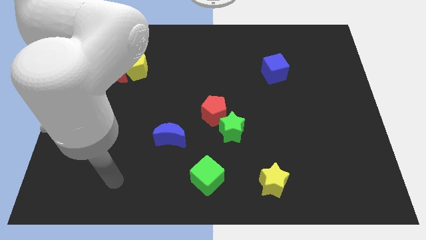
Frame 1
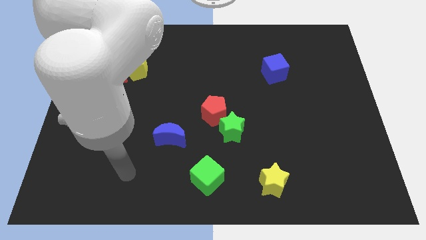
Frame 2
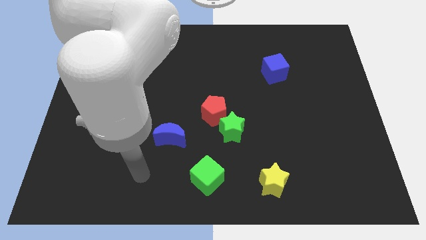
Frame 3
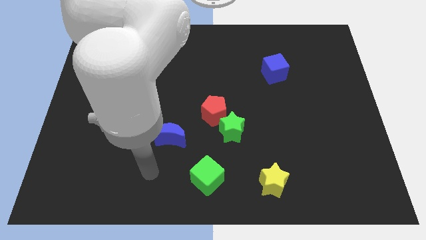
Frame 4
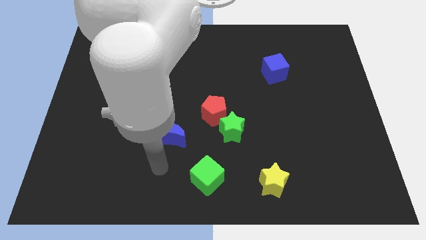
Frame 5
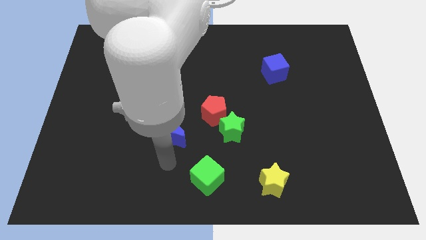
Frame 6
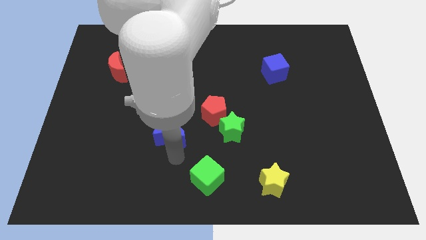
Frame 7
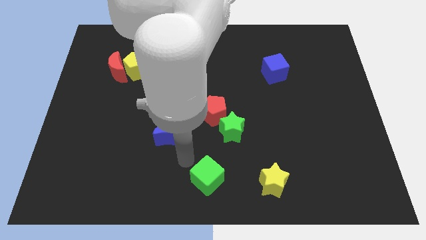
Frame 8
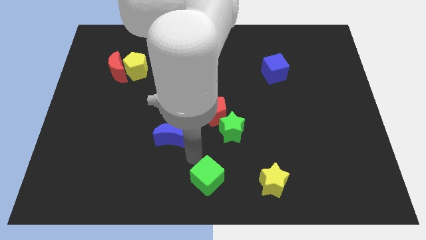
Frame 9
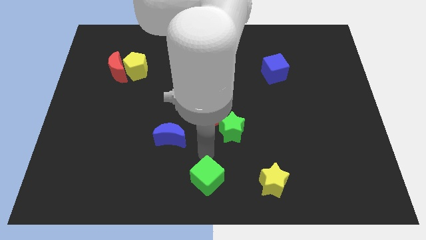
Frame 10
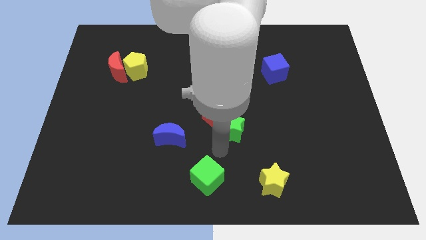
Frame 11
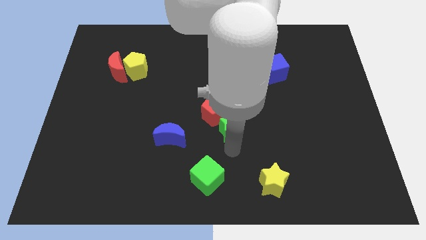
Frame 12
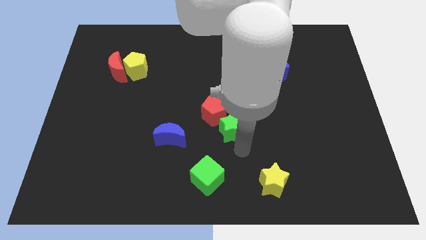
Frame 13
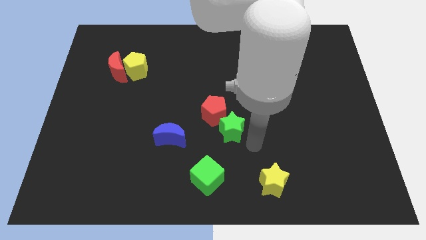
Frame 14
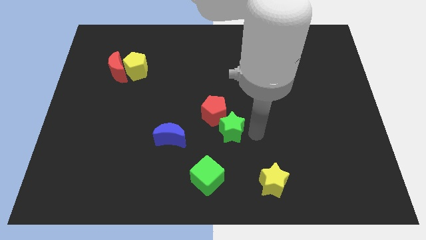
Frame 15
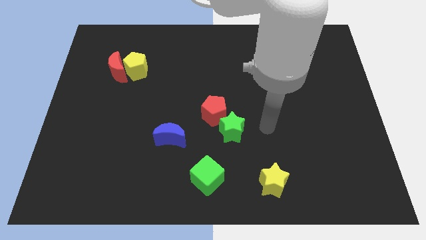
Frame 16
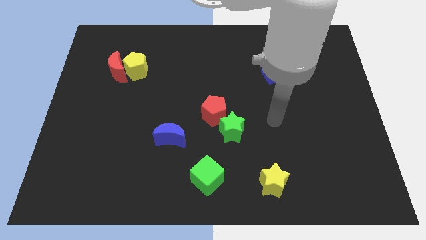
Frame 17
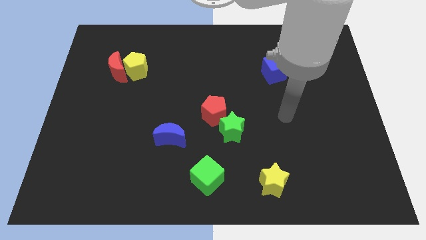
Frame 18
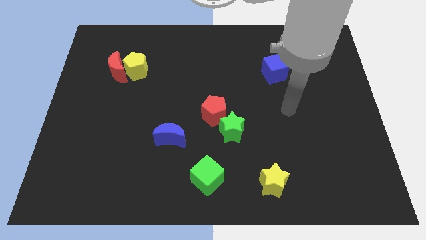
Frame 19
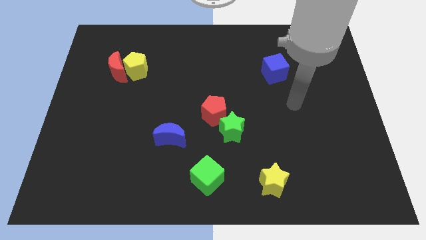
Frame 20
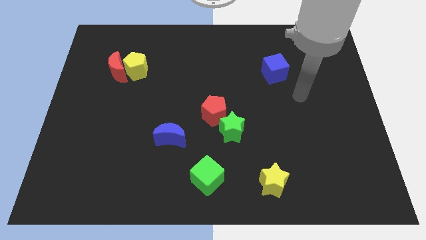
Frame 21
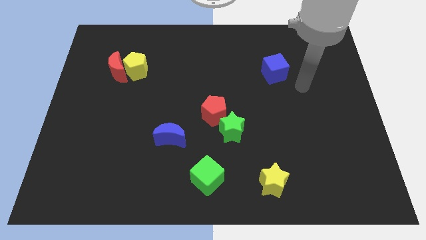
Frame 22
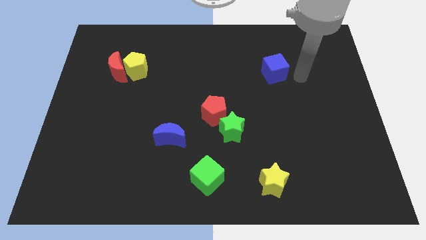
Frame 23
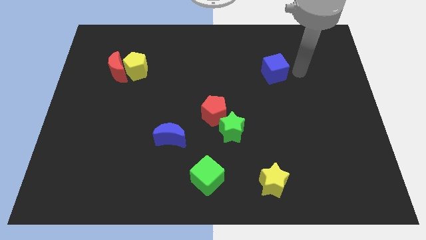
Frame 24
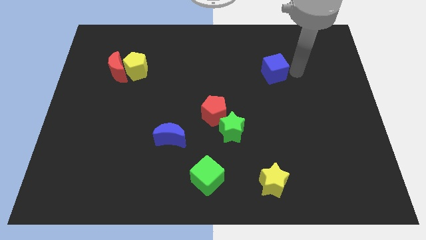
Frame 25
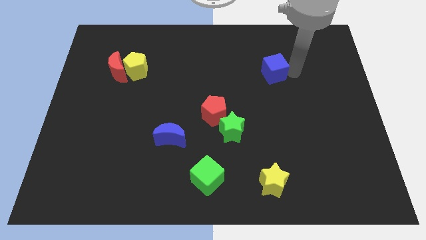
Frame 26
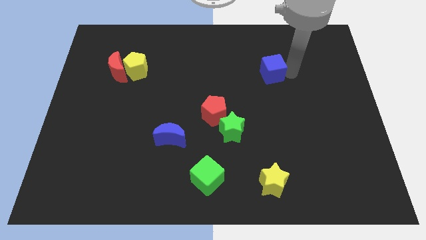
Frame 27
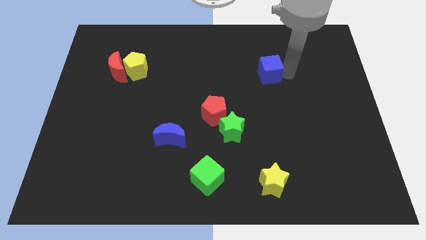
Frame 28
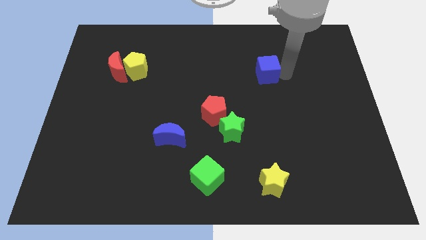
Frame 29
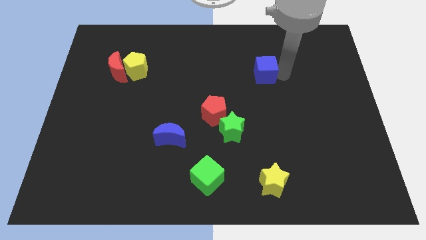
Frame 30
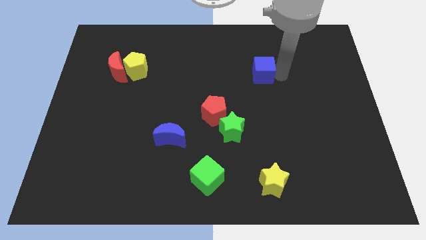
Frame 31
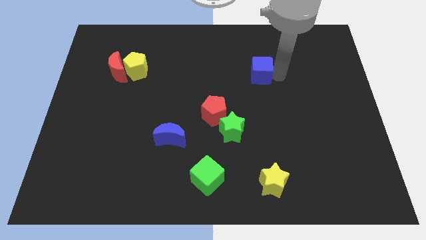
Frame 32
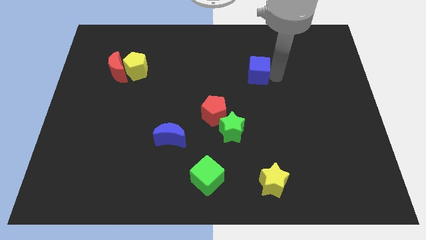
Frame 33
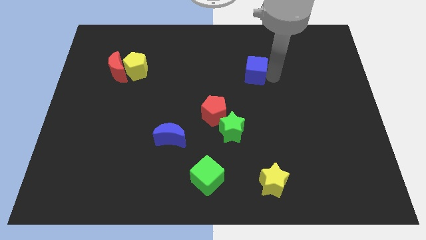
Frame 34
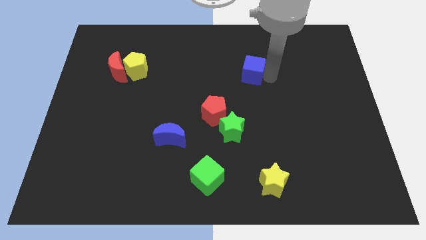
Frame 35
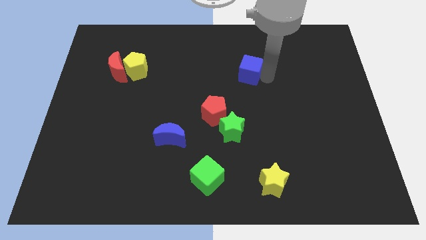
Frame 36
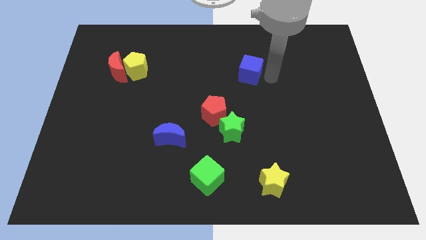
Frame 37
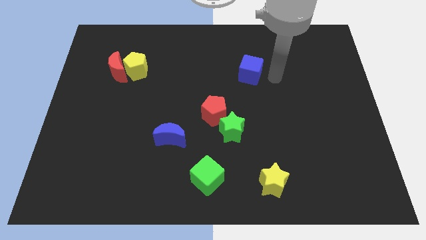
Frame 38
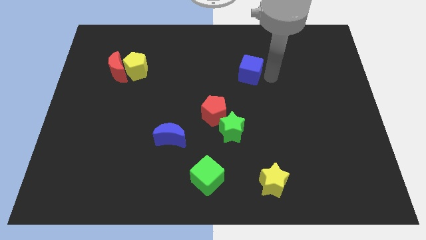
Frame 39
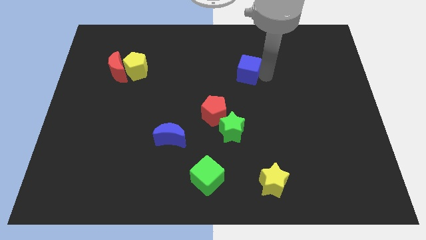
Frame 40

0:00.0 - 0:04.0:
push the blue cube somewhat to the left

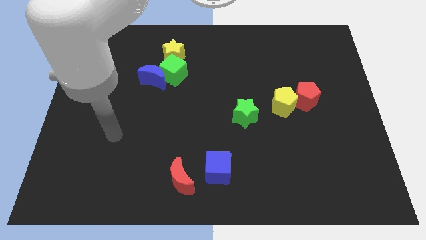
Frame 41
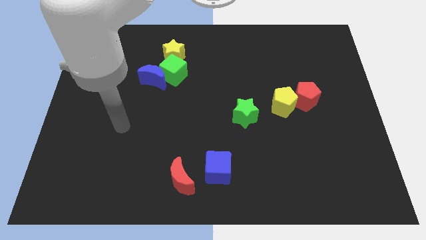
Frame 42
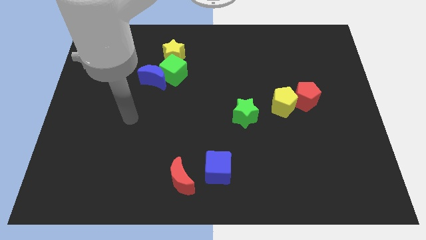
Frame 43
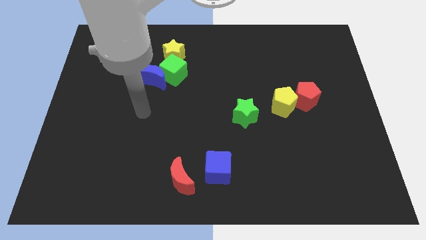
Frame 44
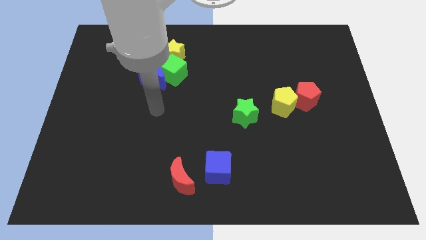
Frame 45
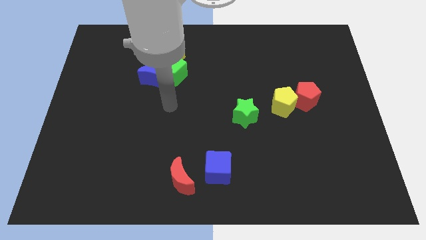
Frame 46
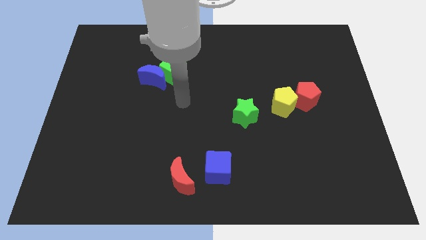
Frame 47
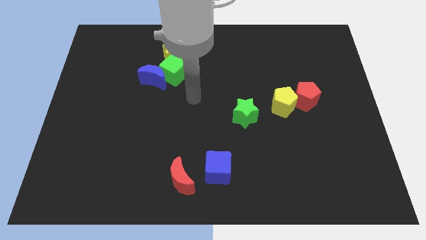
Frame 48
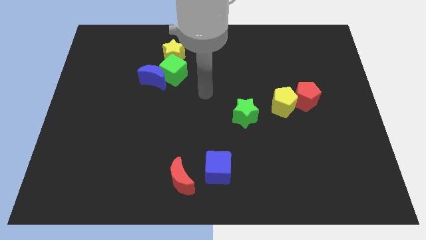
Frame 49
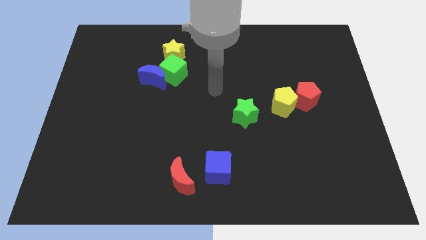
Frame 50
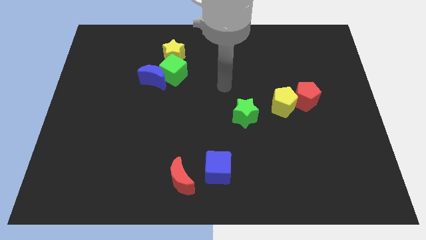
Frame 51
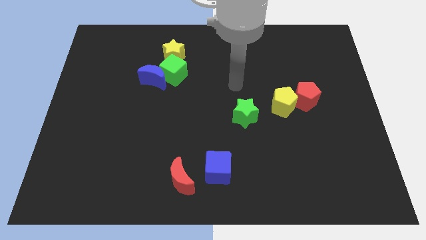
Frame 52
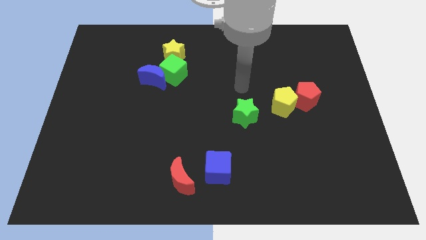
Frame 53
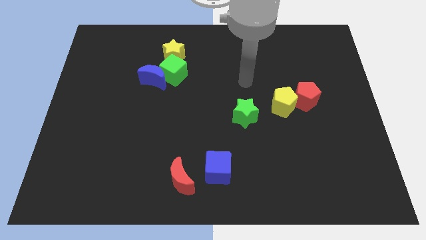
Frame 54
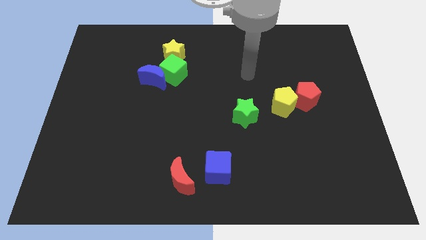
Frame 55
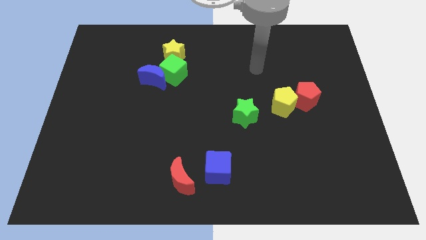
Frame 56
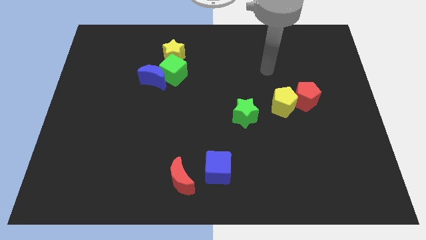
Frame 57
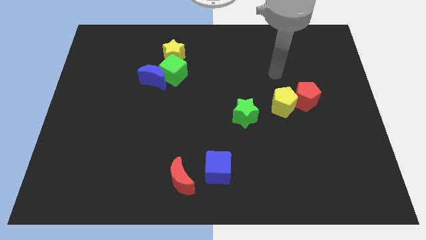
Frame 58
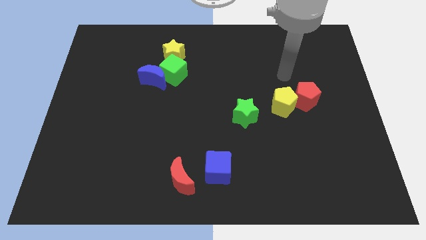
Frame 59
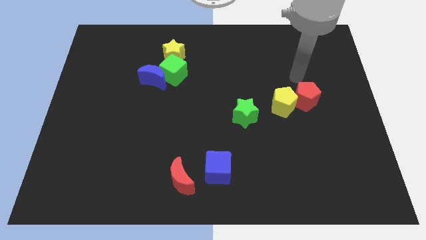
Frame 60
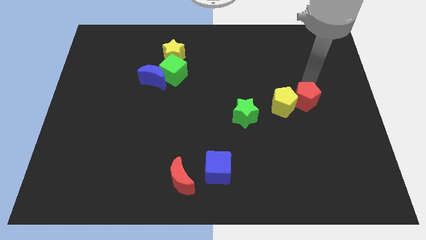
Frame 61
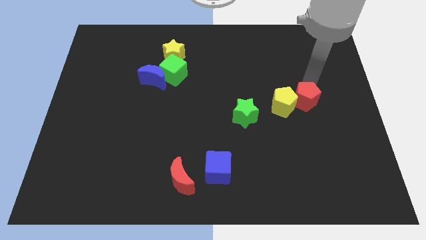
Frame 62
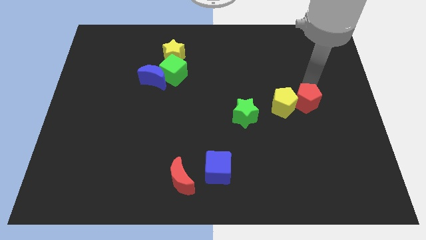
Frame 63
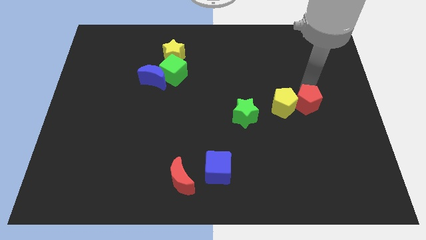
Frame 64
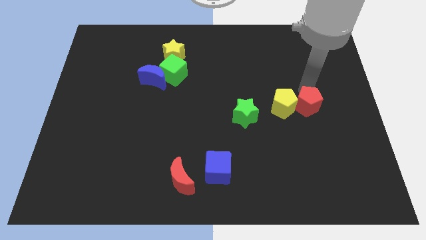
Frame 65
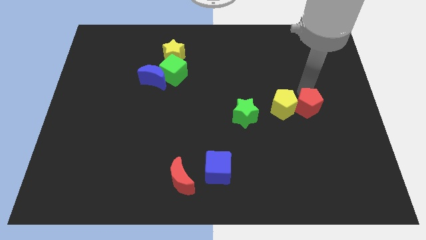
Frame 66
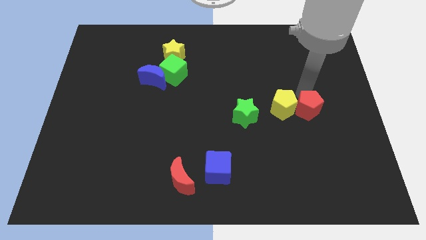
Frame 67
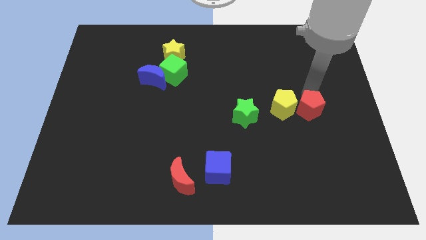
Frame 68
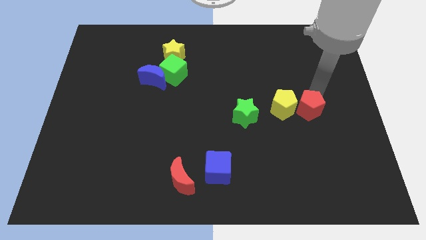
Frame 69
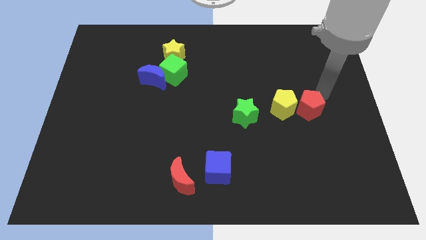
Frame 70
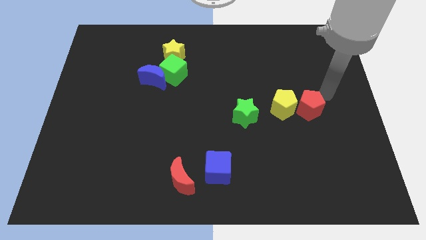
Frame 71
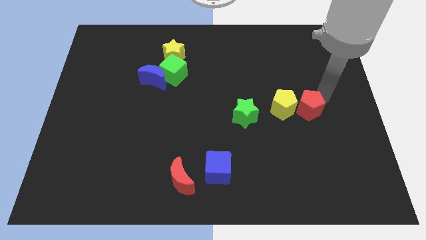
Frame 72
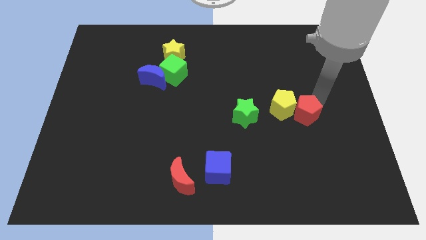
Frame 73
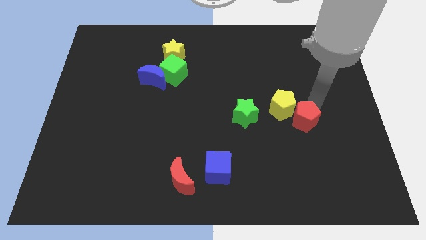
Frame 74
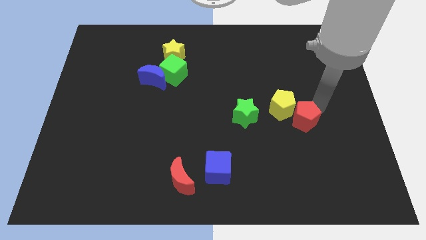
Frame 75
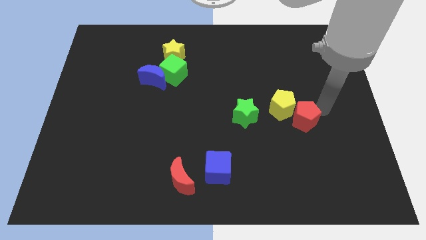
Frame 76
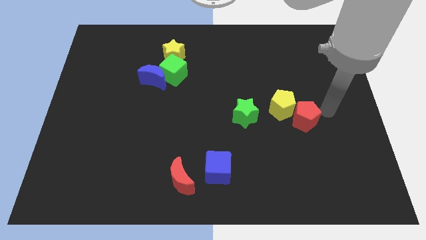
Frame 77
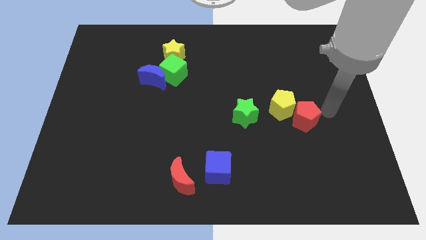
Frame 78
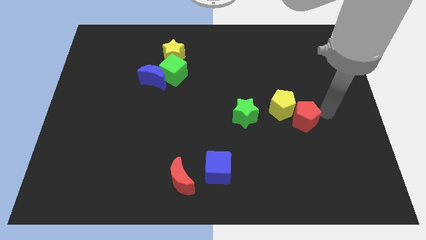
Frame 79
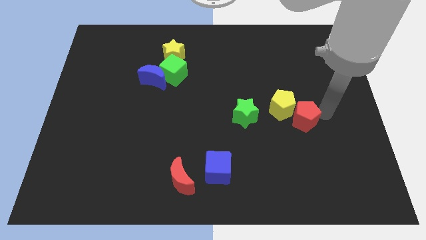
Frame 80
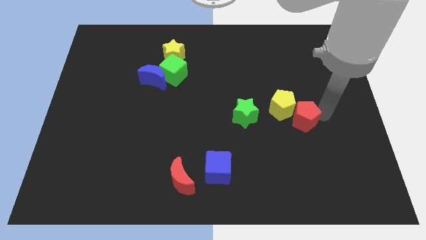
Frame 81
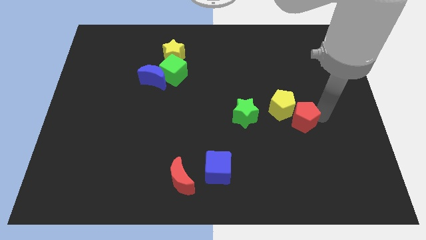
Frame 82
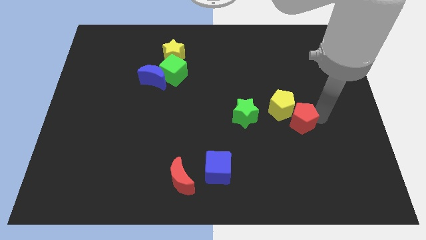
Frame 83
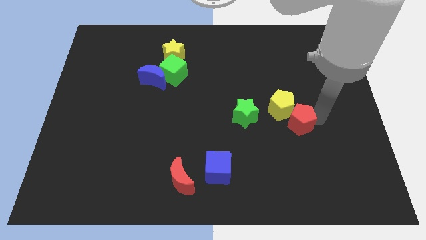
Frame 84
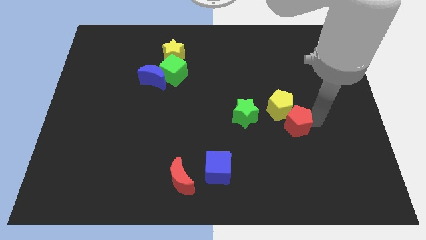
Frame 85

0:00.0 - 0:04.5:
slide the red pentagon a little bit diagonally down and left
